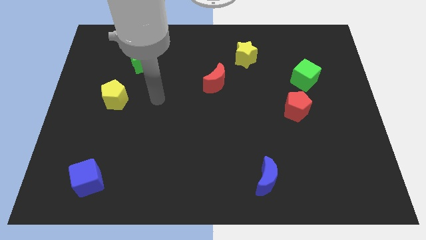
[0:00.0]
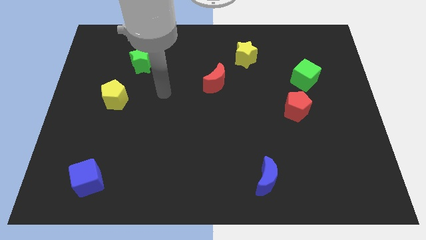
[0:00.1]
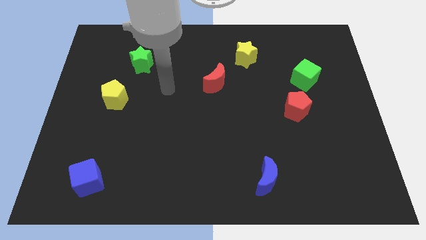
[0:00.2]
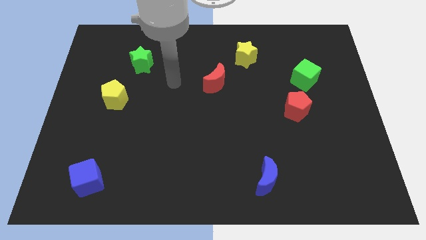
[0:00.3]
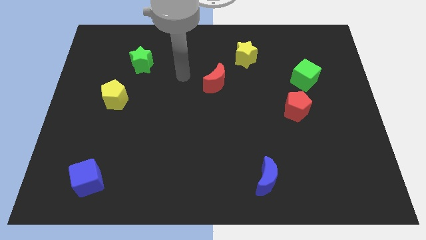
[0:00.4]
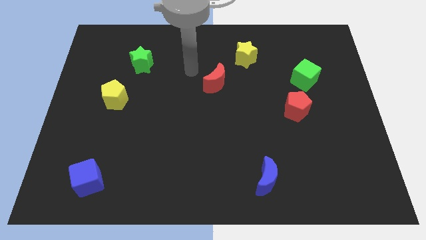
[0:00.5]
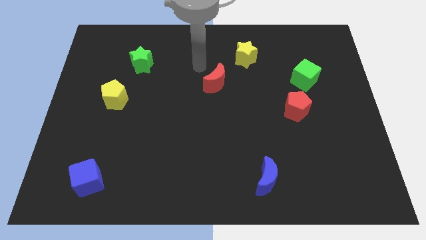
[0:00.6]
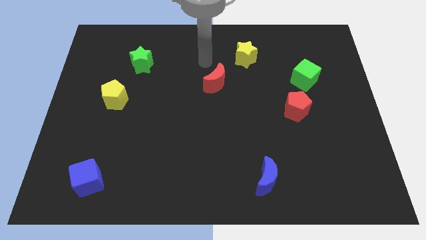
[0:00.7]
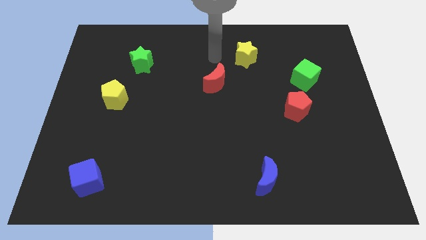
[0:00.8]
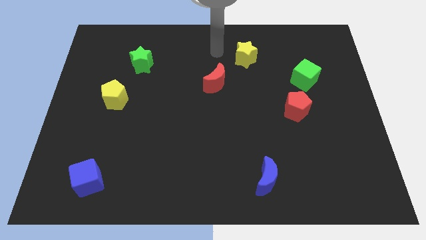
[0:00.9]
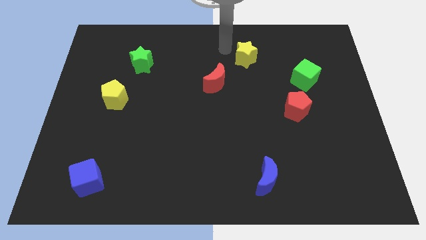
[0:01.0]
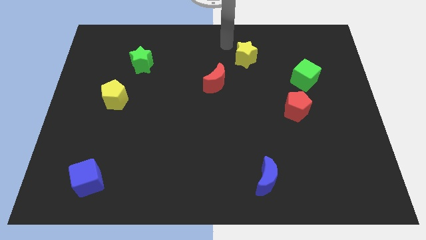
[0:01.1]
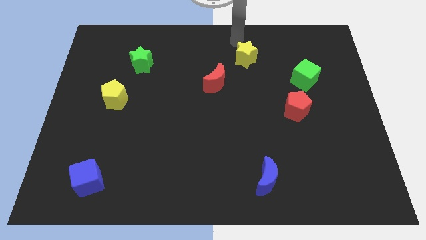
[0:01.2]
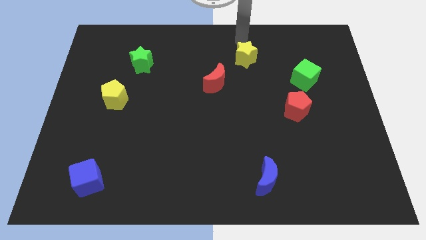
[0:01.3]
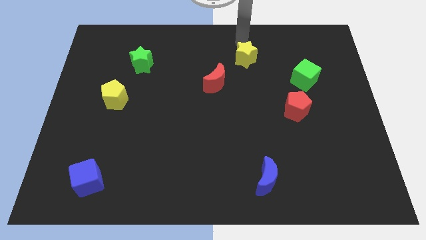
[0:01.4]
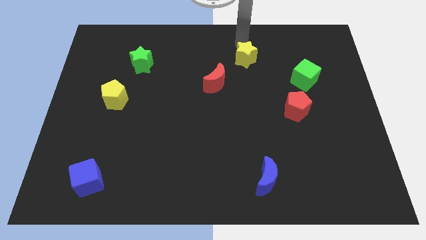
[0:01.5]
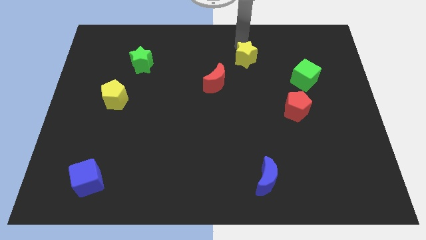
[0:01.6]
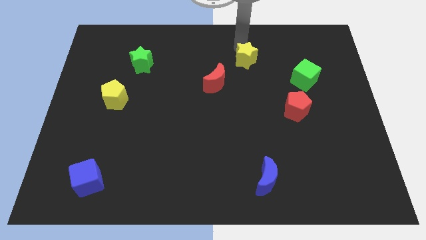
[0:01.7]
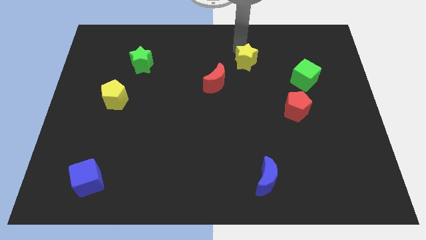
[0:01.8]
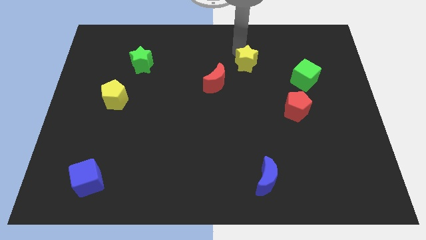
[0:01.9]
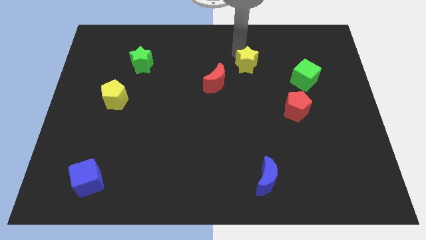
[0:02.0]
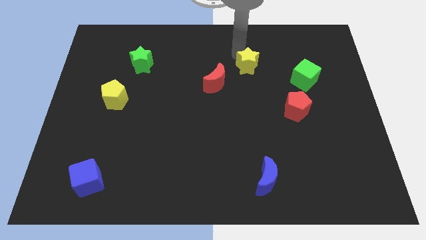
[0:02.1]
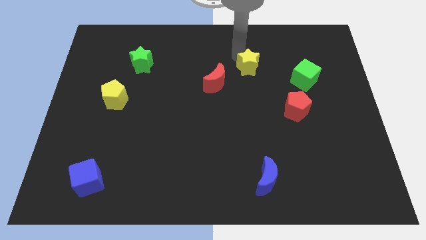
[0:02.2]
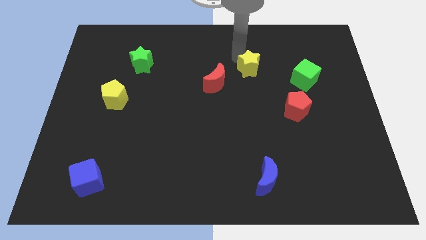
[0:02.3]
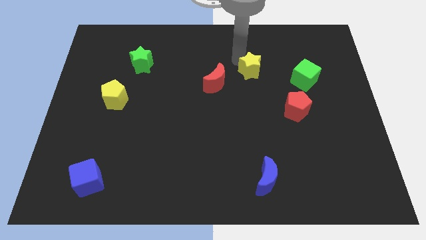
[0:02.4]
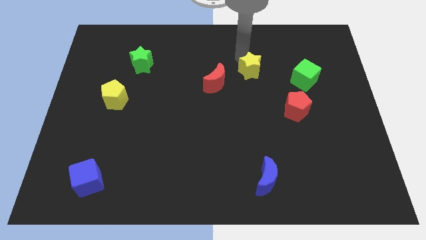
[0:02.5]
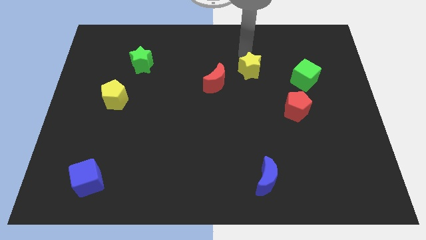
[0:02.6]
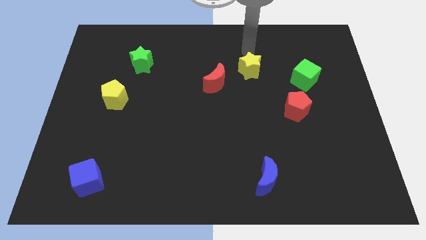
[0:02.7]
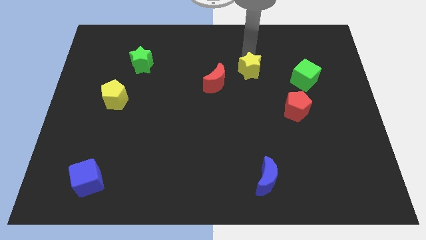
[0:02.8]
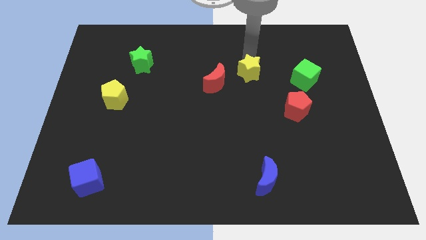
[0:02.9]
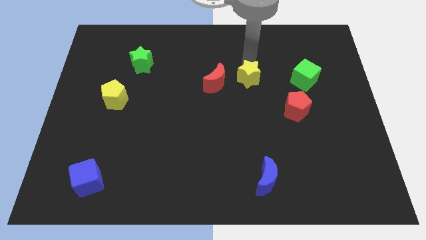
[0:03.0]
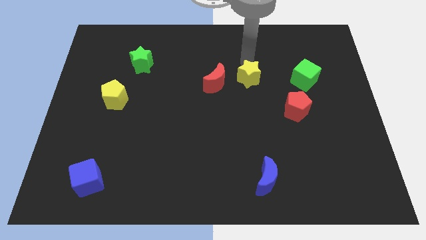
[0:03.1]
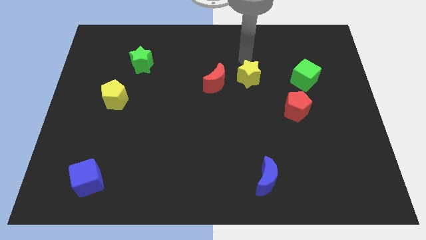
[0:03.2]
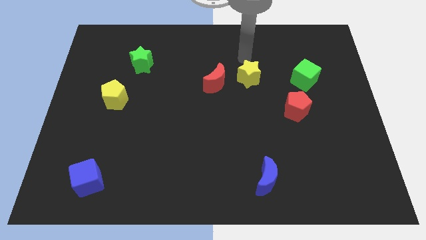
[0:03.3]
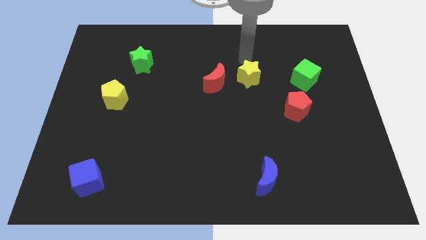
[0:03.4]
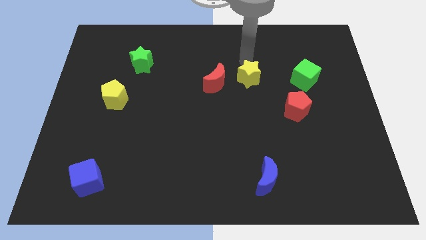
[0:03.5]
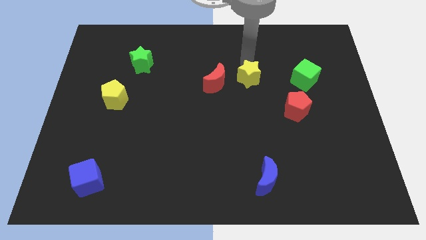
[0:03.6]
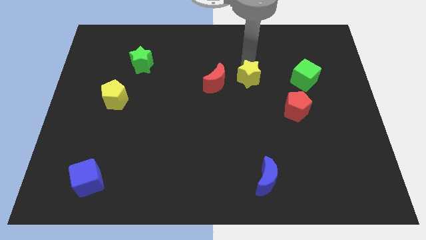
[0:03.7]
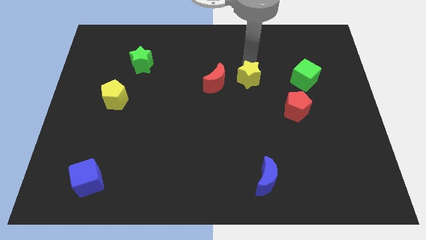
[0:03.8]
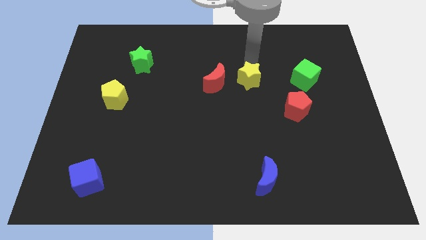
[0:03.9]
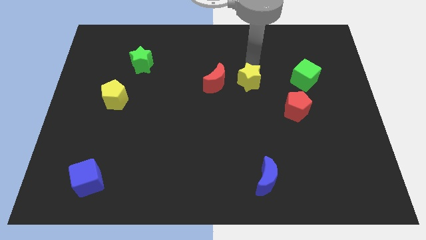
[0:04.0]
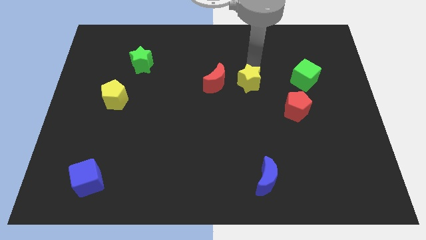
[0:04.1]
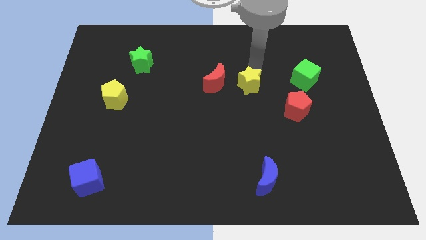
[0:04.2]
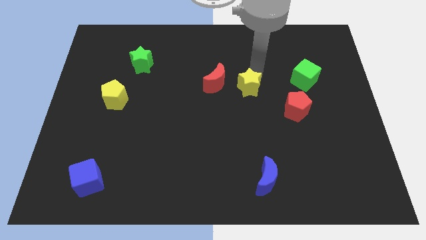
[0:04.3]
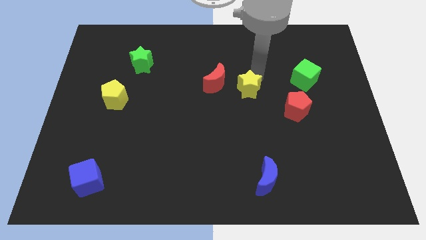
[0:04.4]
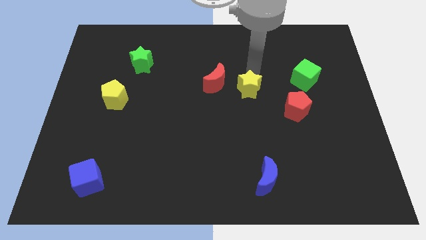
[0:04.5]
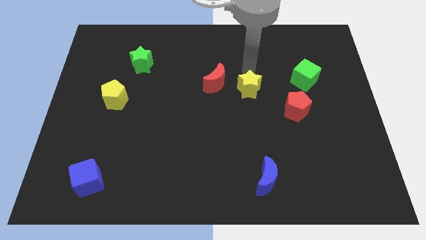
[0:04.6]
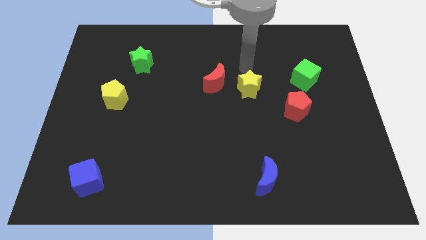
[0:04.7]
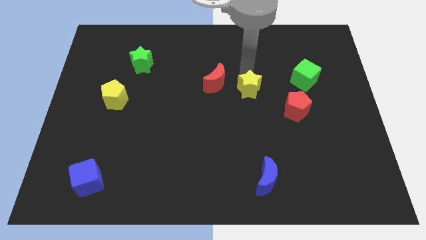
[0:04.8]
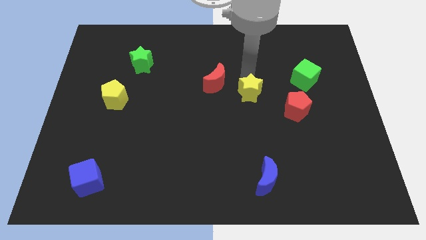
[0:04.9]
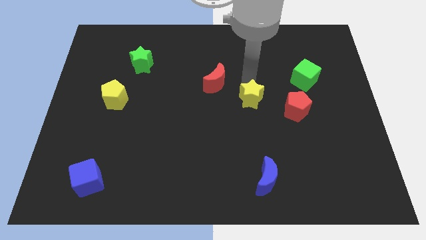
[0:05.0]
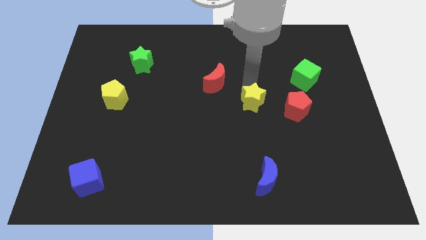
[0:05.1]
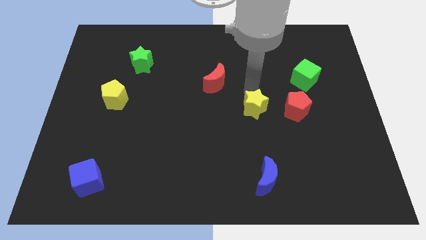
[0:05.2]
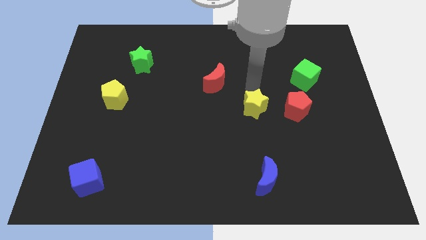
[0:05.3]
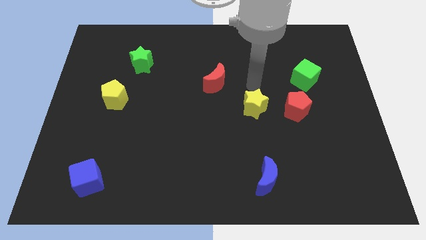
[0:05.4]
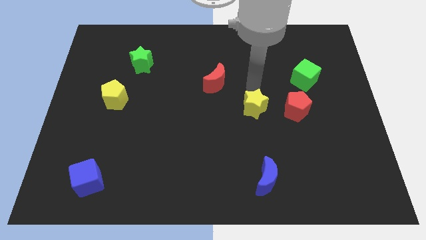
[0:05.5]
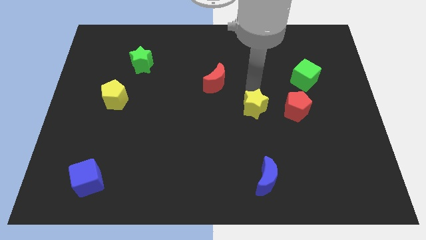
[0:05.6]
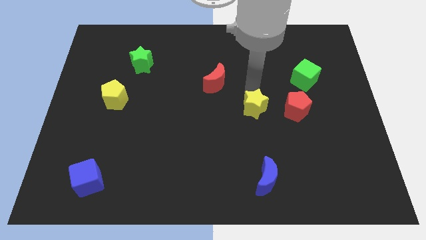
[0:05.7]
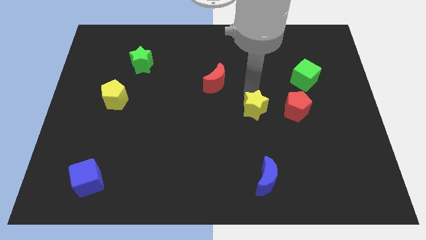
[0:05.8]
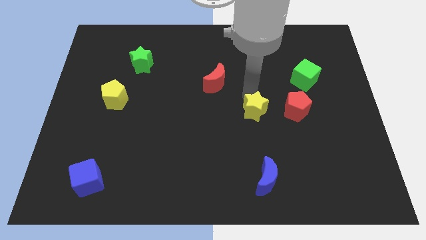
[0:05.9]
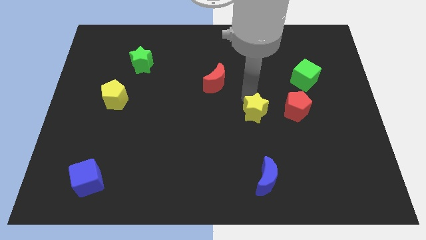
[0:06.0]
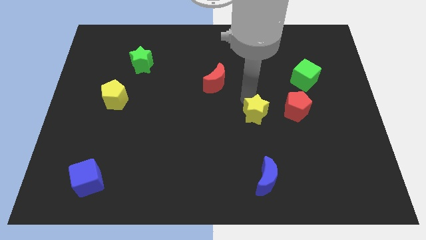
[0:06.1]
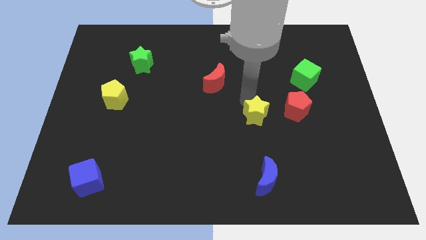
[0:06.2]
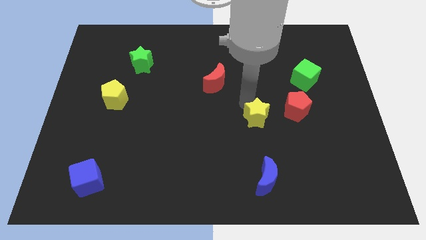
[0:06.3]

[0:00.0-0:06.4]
slide the yellow star to the top side of the blue moon

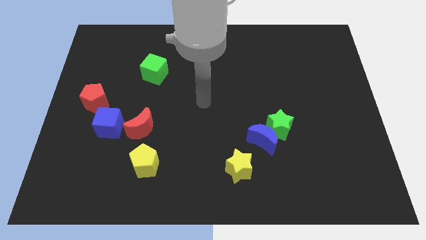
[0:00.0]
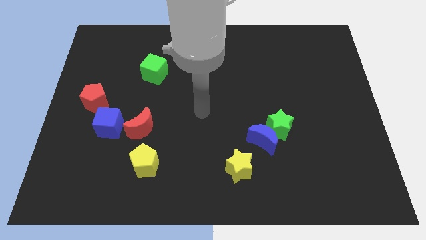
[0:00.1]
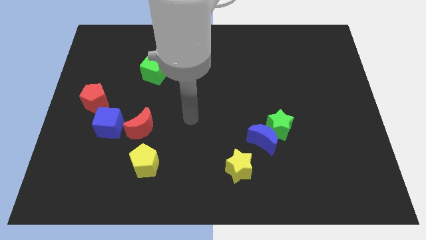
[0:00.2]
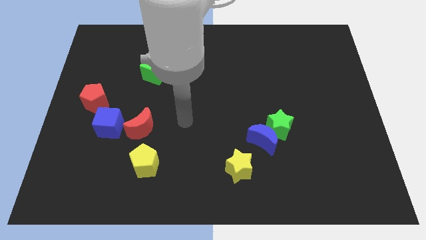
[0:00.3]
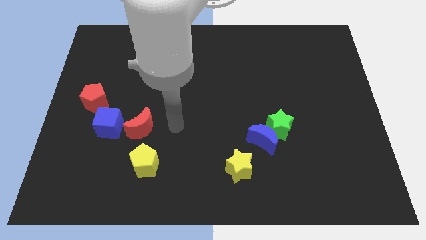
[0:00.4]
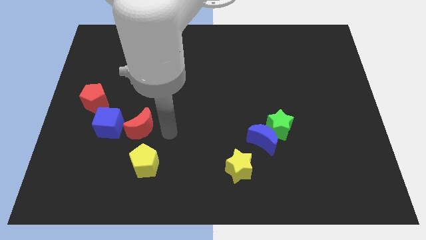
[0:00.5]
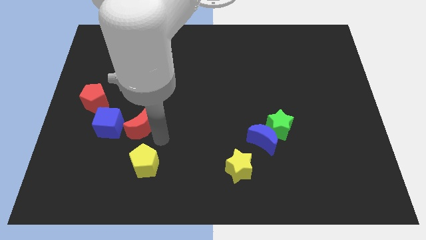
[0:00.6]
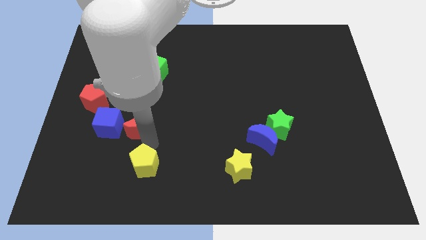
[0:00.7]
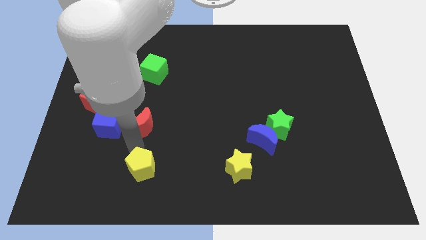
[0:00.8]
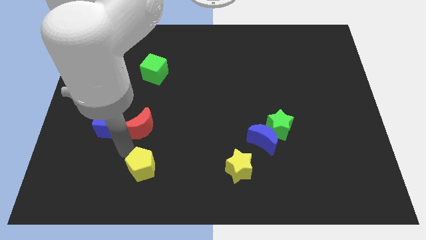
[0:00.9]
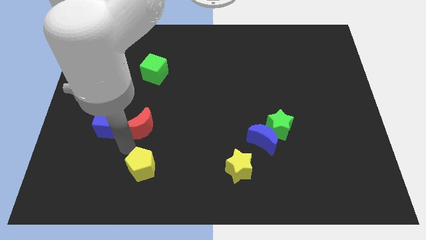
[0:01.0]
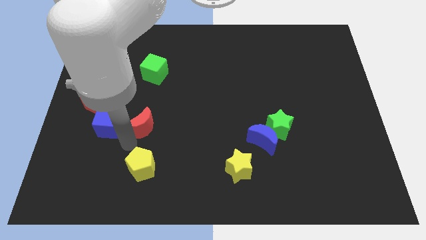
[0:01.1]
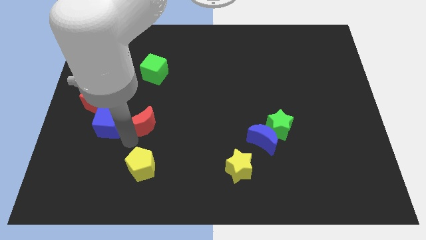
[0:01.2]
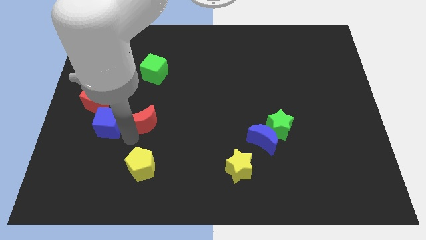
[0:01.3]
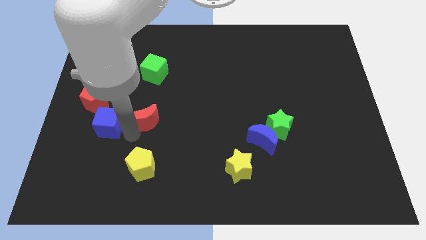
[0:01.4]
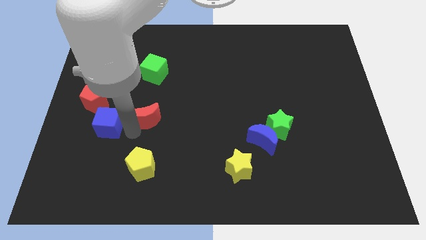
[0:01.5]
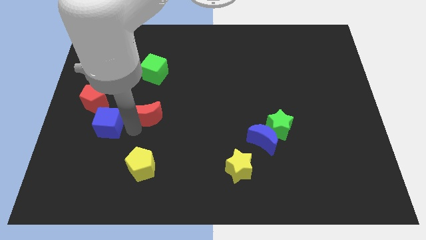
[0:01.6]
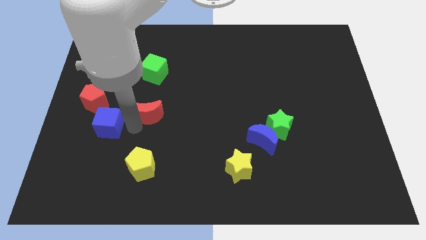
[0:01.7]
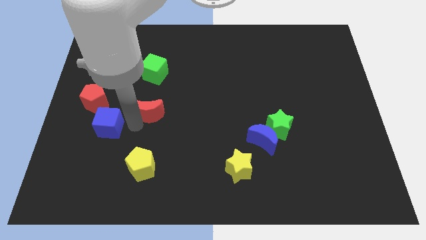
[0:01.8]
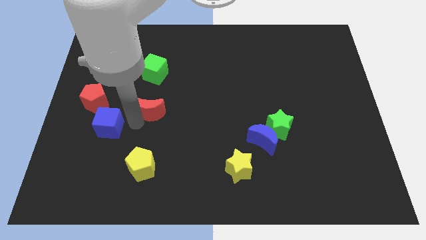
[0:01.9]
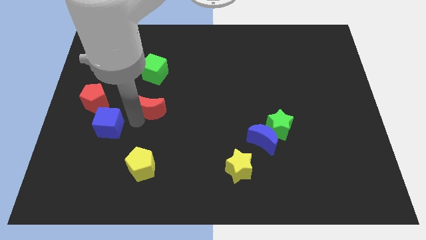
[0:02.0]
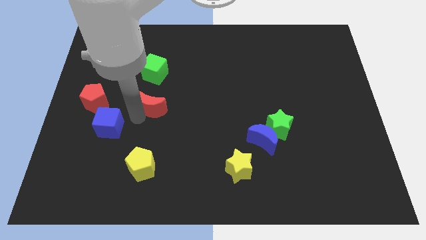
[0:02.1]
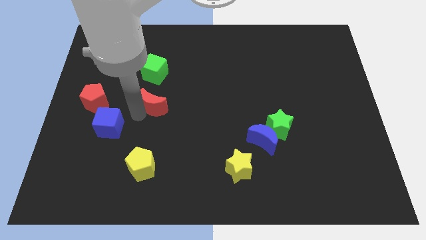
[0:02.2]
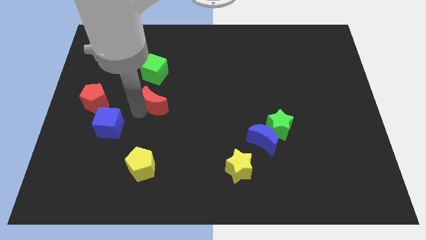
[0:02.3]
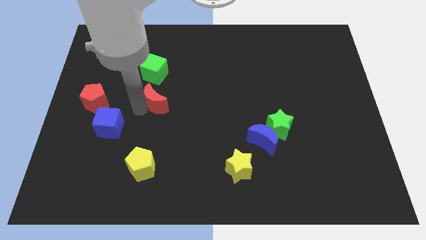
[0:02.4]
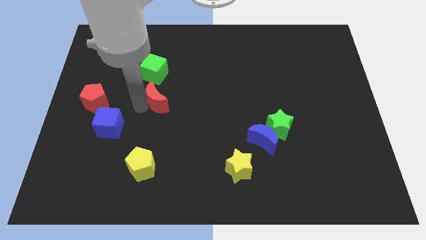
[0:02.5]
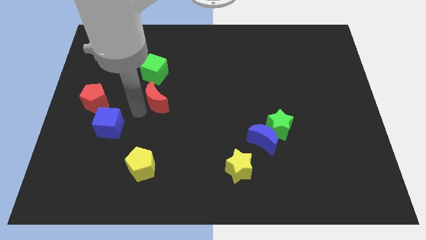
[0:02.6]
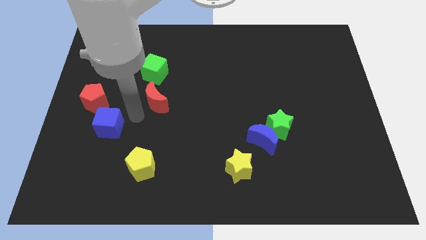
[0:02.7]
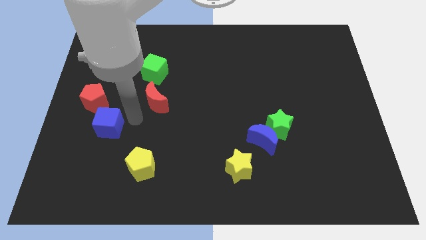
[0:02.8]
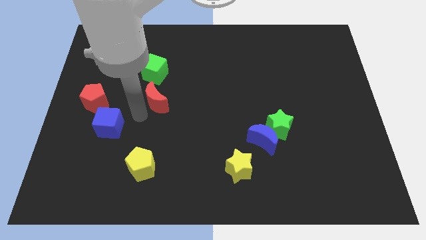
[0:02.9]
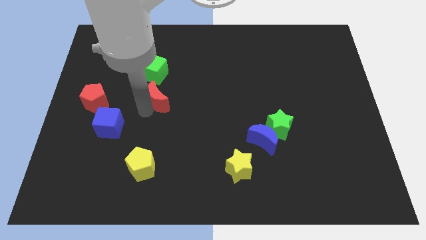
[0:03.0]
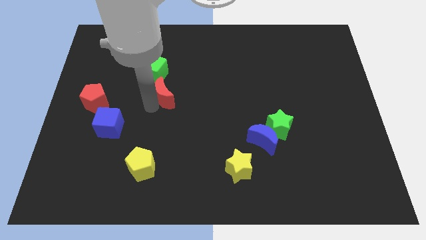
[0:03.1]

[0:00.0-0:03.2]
push the red moon diagonally down and to the right of the green cube
